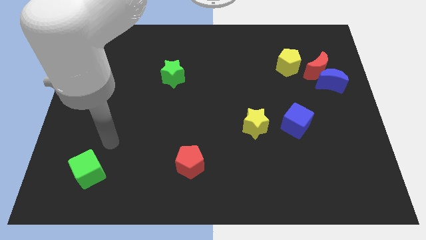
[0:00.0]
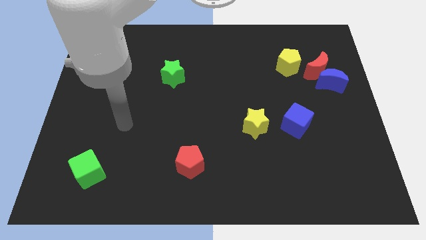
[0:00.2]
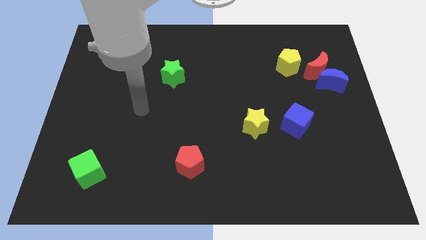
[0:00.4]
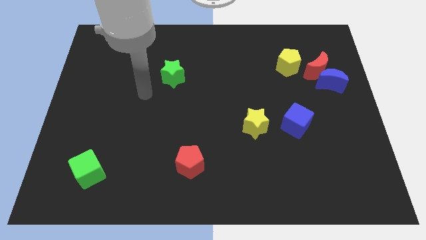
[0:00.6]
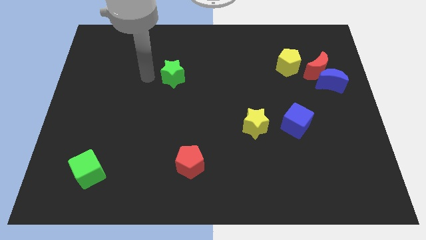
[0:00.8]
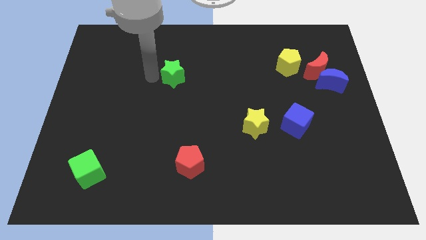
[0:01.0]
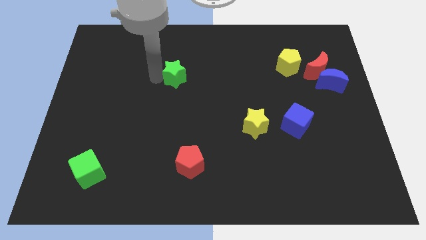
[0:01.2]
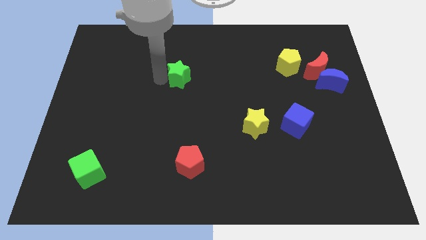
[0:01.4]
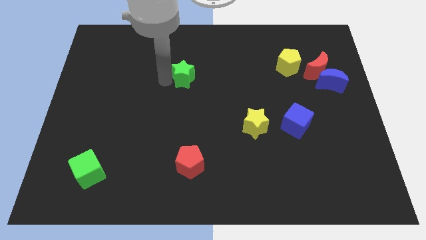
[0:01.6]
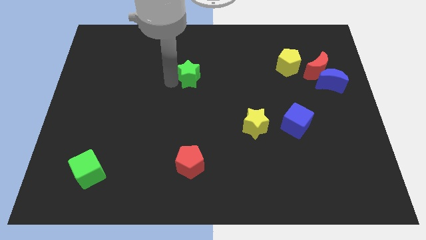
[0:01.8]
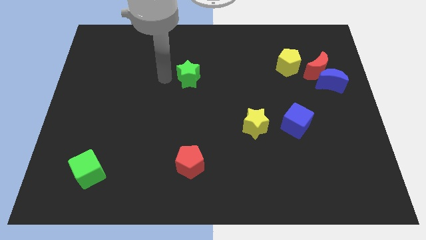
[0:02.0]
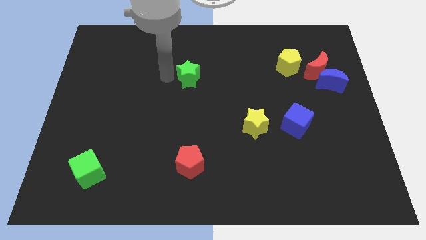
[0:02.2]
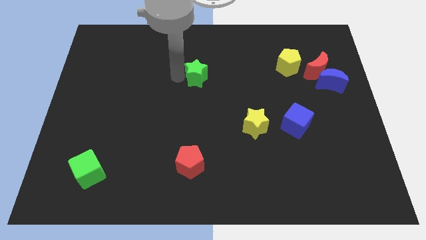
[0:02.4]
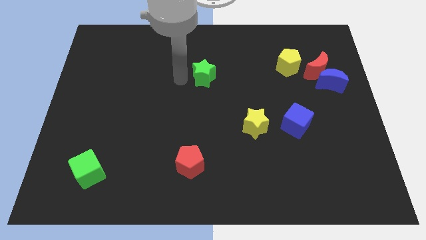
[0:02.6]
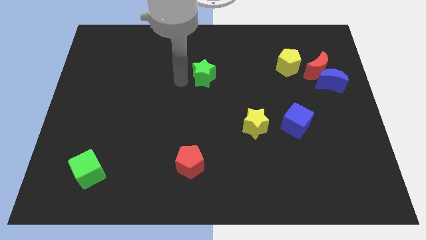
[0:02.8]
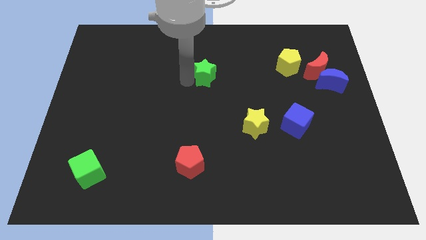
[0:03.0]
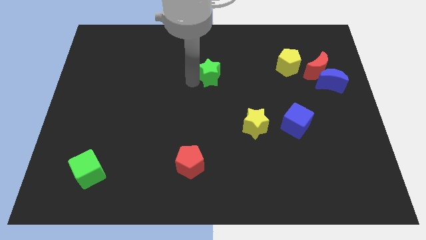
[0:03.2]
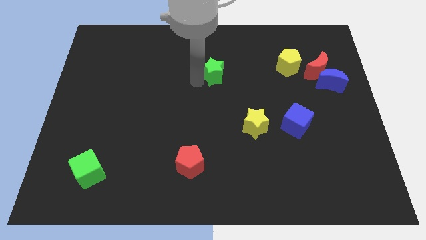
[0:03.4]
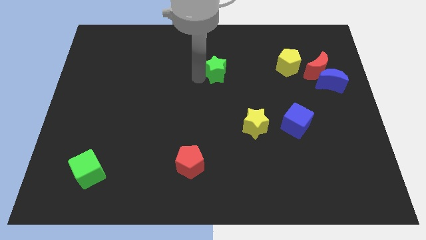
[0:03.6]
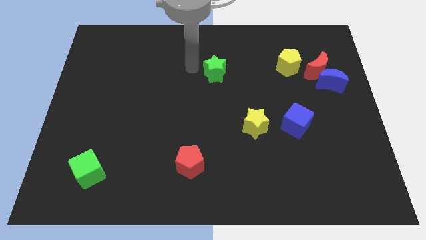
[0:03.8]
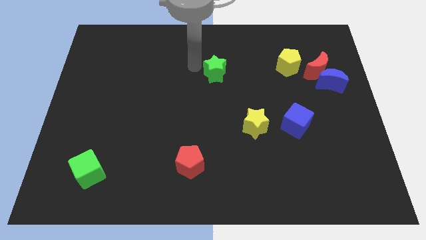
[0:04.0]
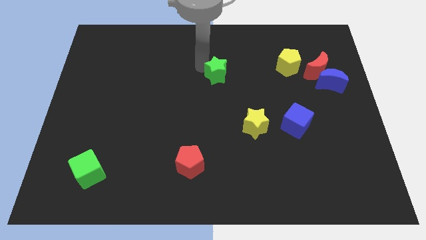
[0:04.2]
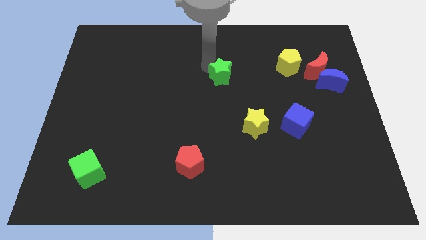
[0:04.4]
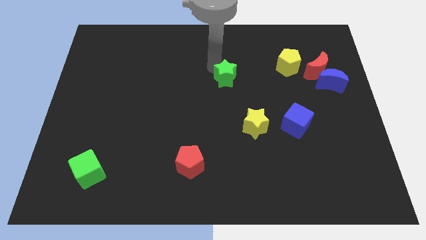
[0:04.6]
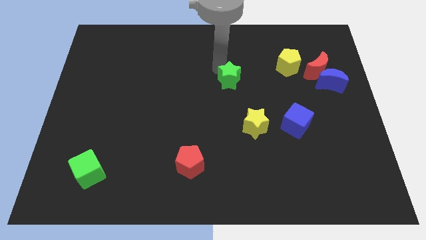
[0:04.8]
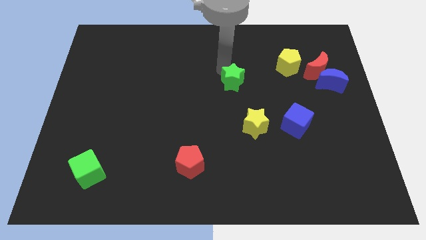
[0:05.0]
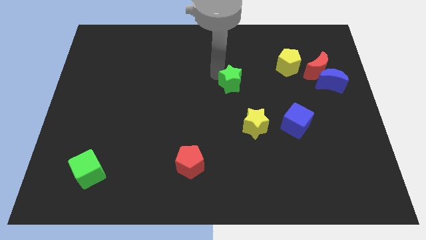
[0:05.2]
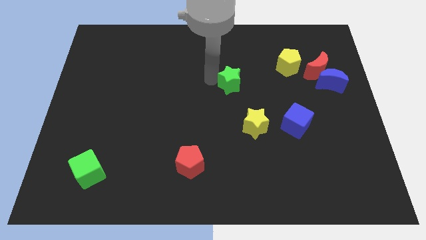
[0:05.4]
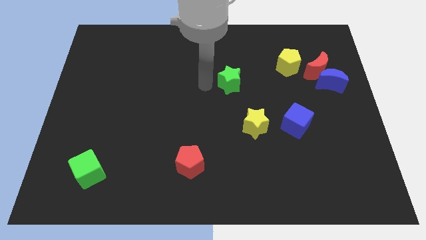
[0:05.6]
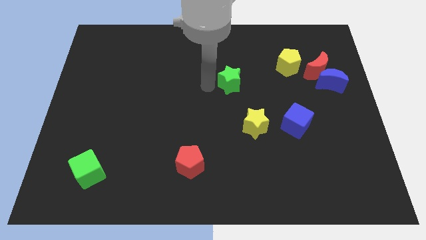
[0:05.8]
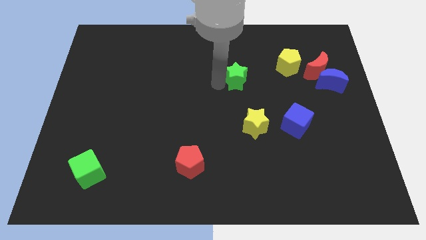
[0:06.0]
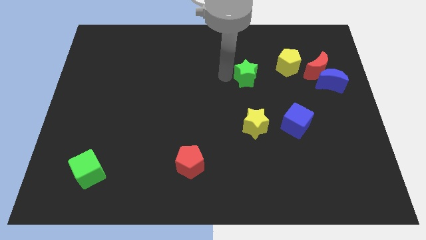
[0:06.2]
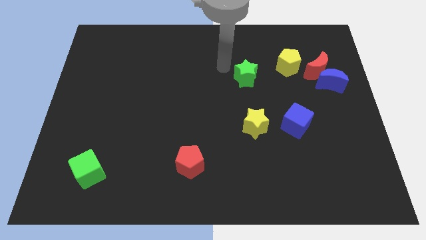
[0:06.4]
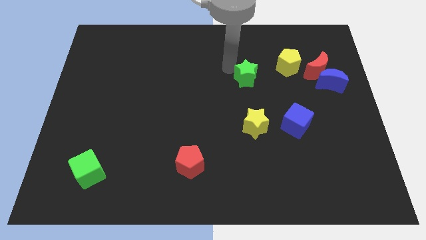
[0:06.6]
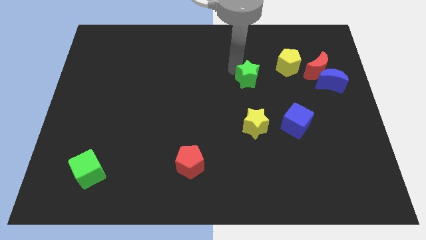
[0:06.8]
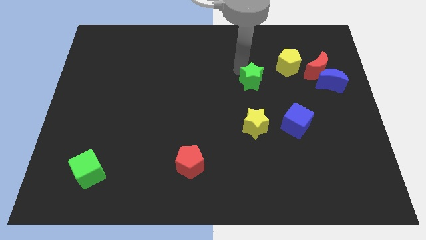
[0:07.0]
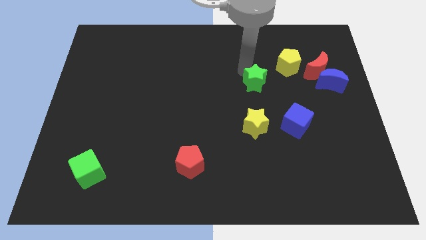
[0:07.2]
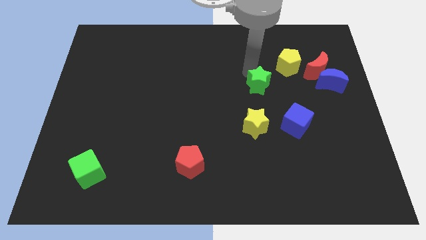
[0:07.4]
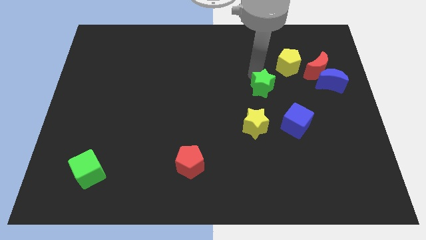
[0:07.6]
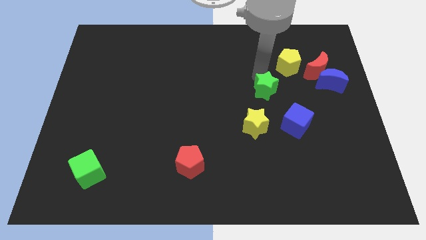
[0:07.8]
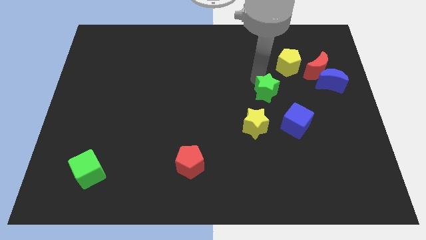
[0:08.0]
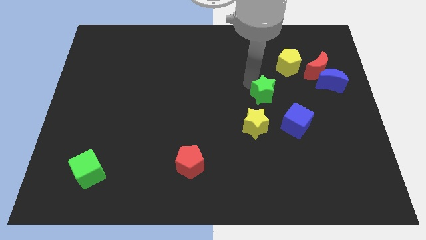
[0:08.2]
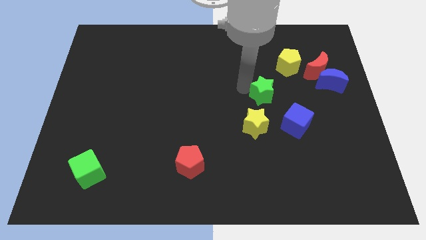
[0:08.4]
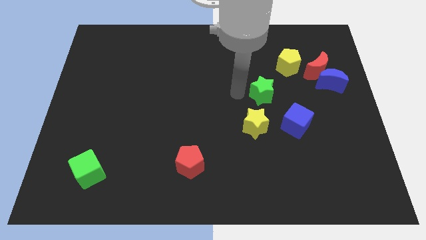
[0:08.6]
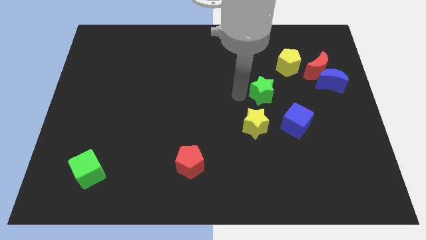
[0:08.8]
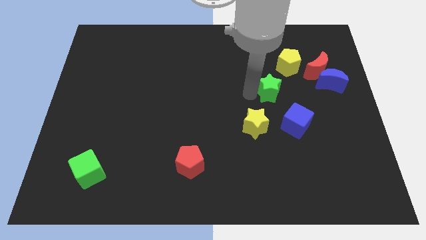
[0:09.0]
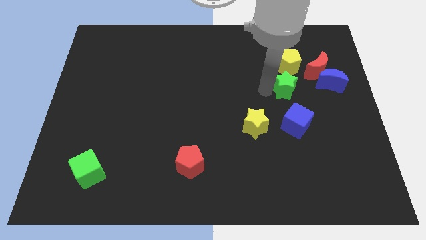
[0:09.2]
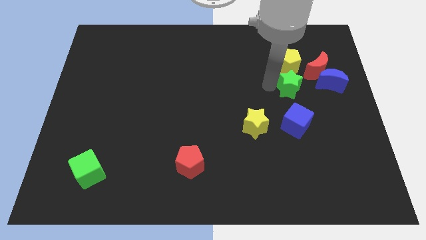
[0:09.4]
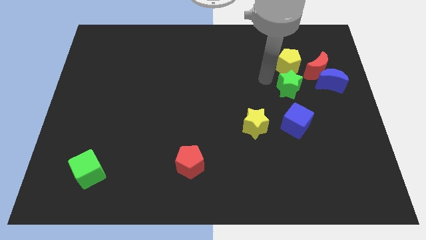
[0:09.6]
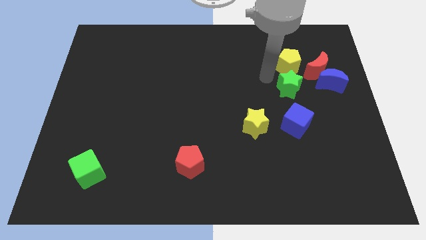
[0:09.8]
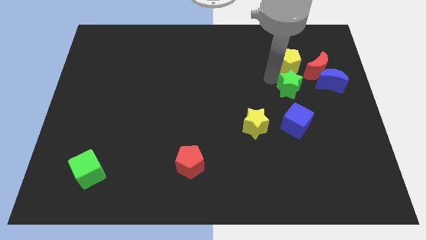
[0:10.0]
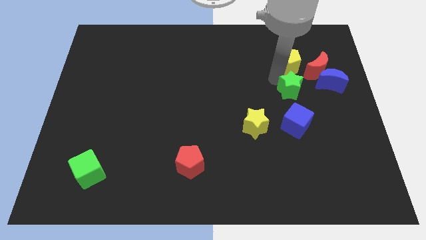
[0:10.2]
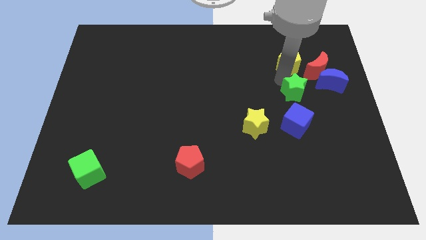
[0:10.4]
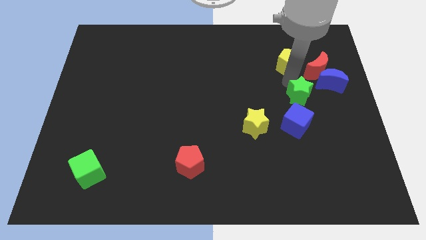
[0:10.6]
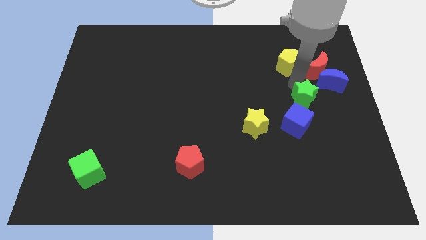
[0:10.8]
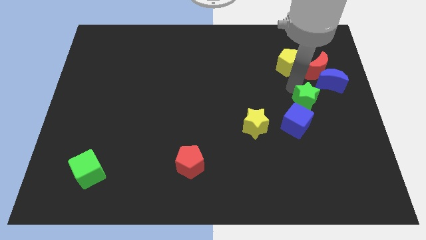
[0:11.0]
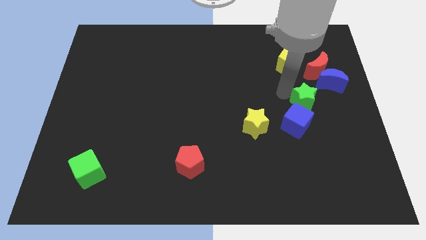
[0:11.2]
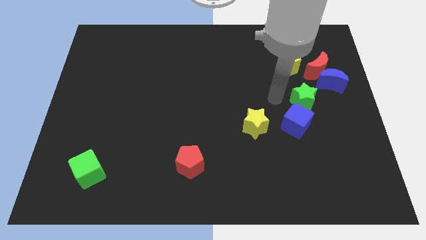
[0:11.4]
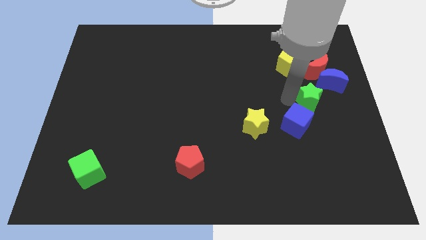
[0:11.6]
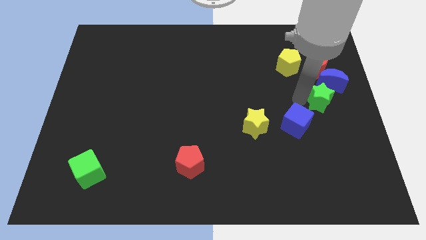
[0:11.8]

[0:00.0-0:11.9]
slide the green star to the right side

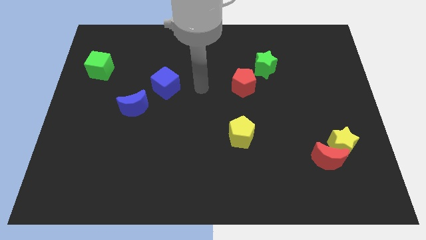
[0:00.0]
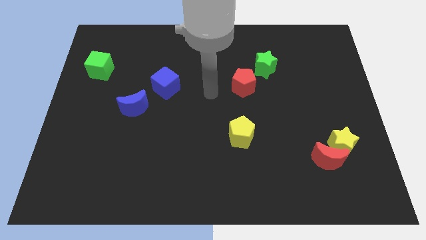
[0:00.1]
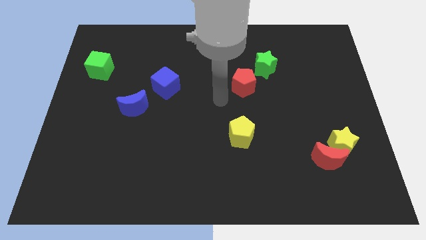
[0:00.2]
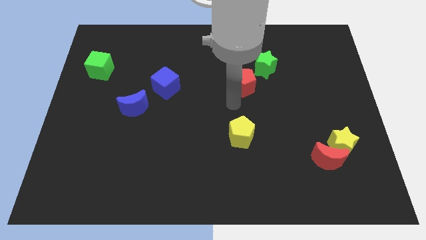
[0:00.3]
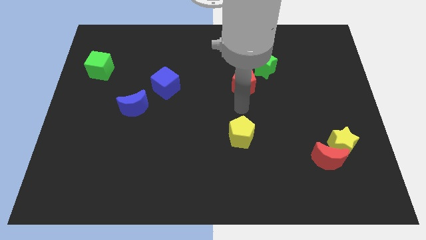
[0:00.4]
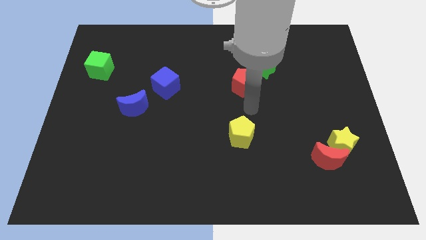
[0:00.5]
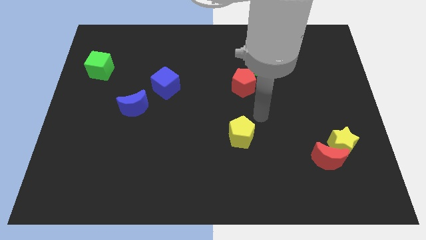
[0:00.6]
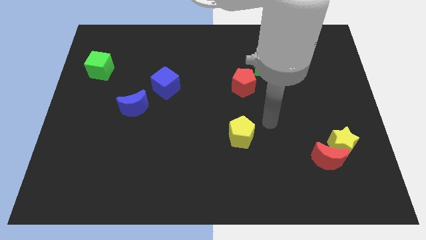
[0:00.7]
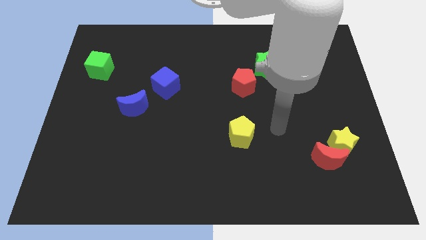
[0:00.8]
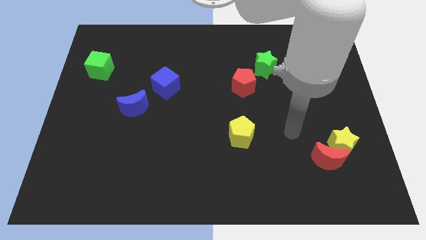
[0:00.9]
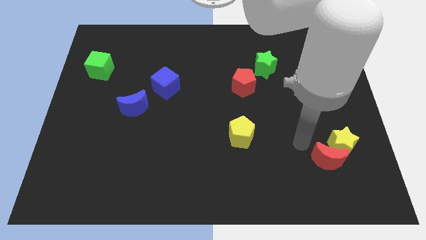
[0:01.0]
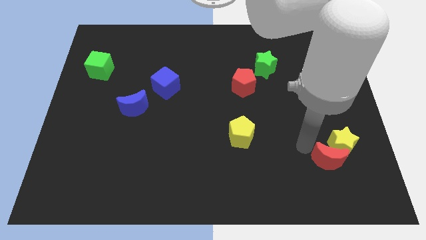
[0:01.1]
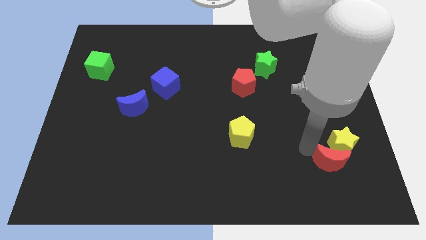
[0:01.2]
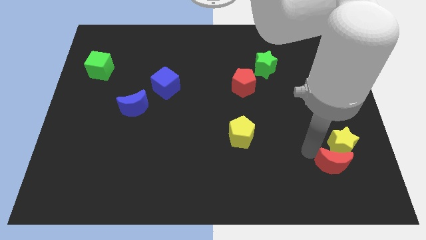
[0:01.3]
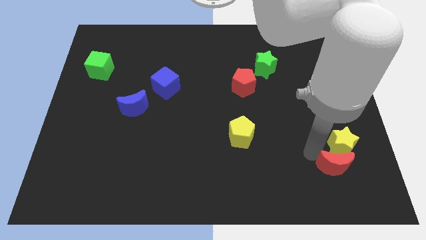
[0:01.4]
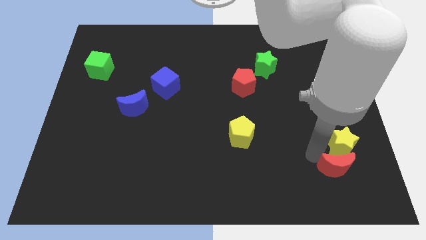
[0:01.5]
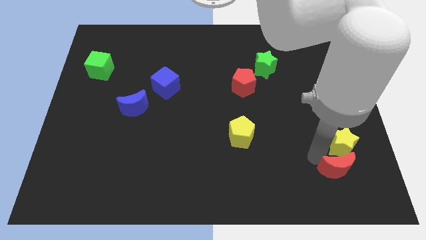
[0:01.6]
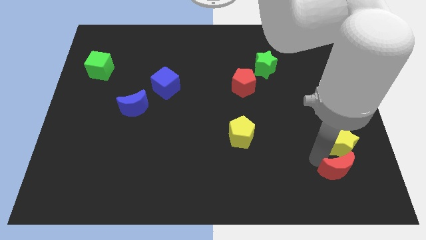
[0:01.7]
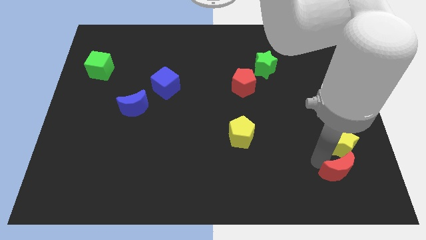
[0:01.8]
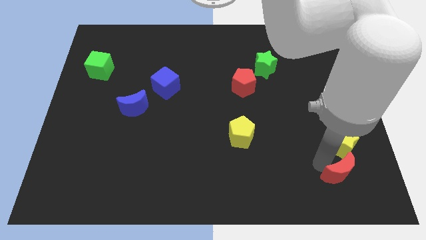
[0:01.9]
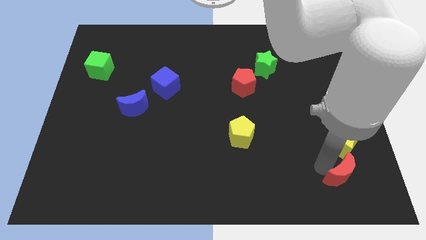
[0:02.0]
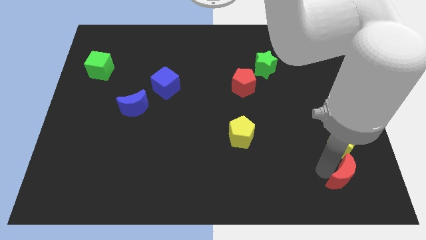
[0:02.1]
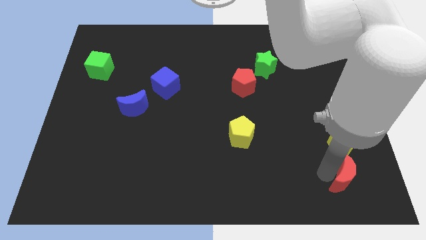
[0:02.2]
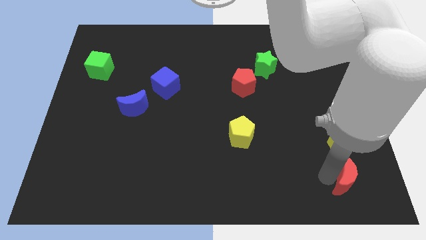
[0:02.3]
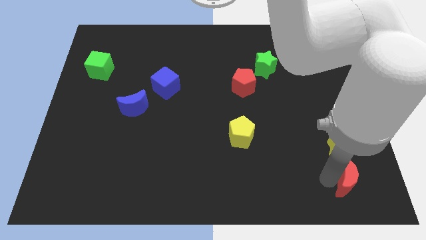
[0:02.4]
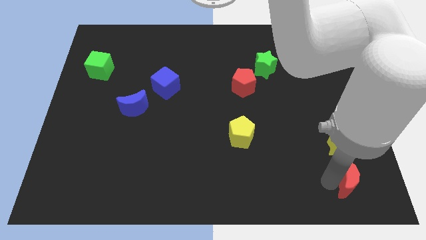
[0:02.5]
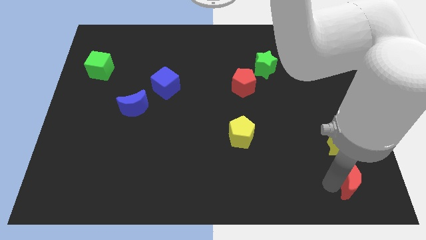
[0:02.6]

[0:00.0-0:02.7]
put the red moon to the bottom right
